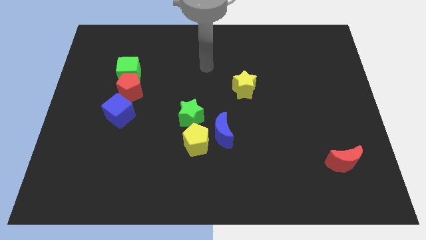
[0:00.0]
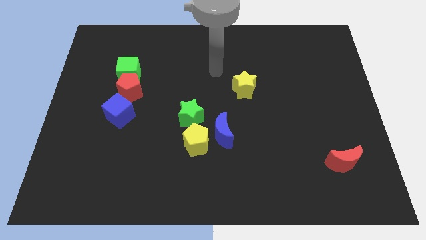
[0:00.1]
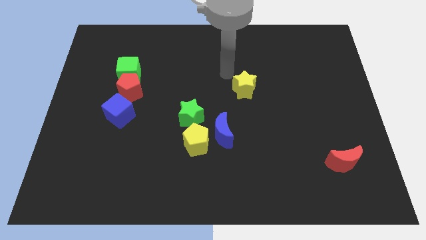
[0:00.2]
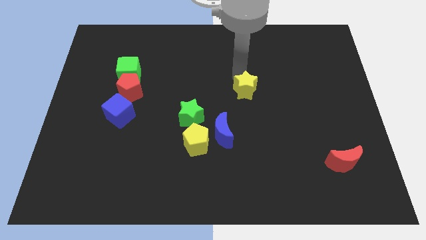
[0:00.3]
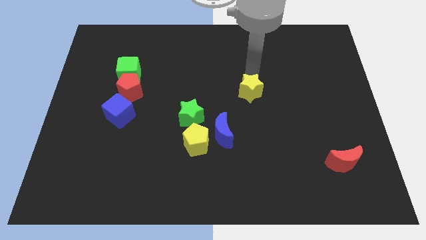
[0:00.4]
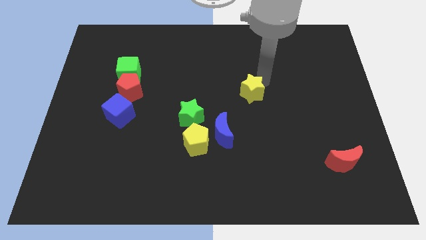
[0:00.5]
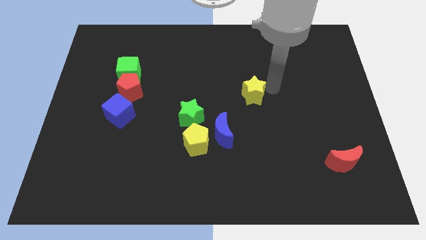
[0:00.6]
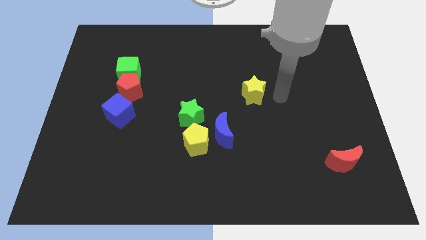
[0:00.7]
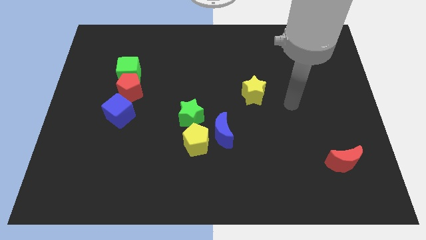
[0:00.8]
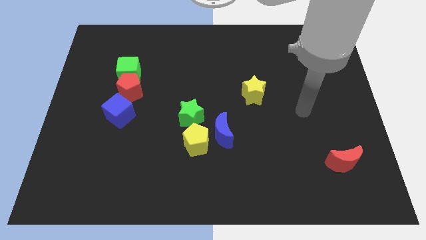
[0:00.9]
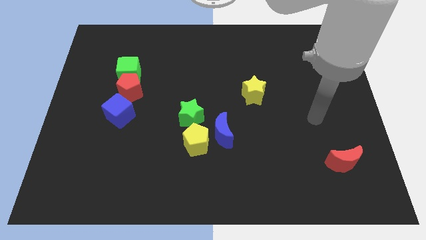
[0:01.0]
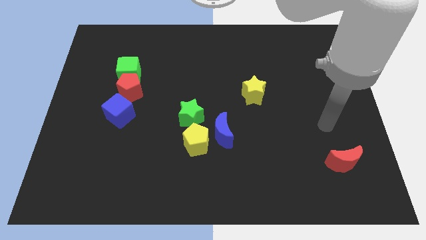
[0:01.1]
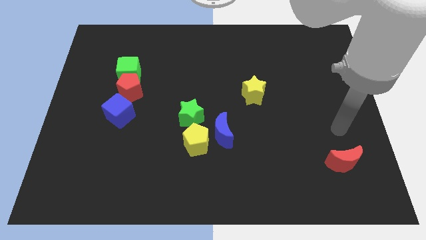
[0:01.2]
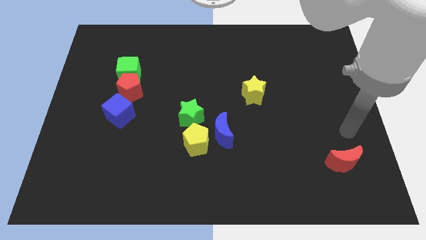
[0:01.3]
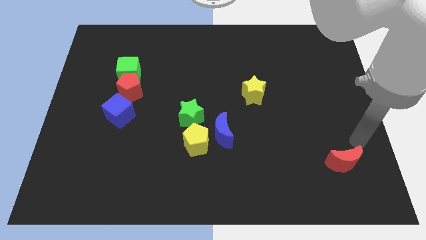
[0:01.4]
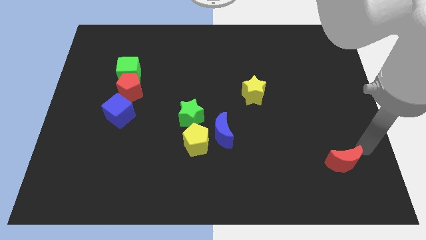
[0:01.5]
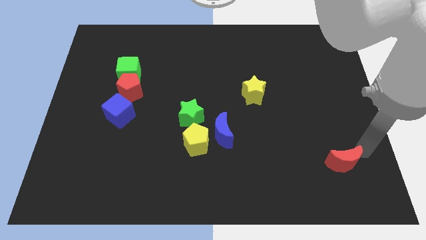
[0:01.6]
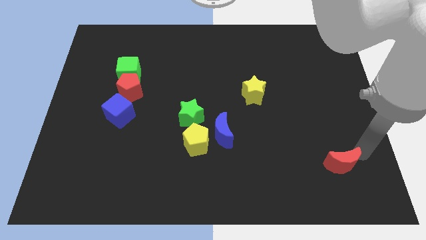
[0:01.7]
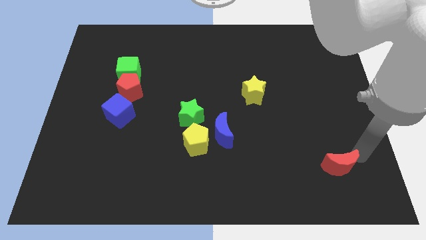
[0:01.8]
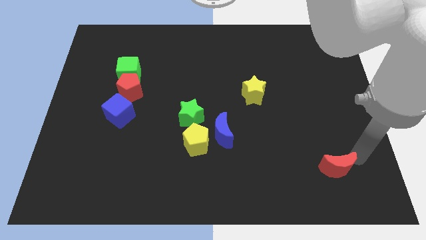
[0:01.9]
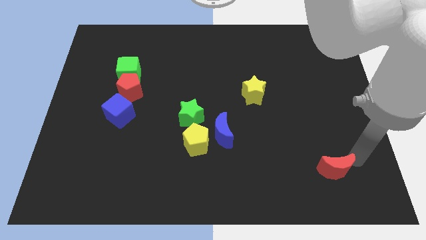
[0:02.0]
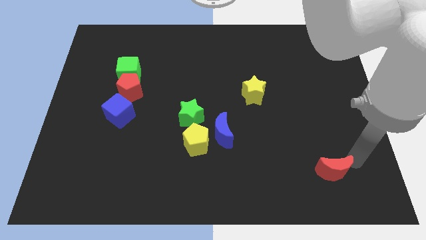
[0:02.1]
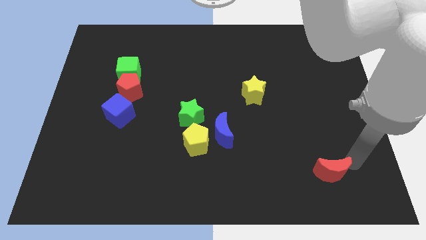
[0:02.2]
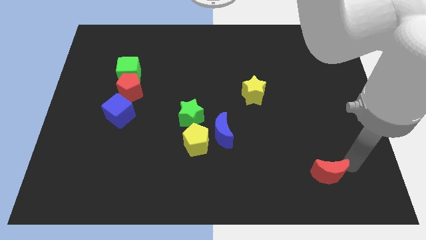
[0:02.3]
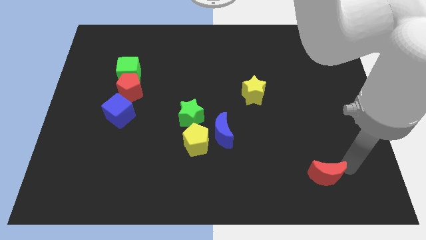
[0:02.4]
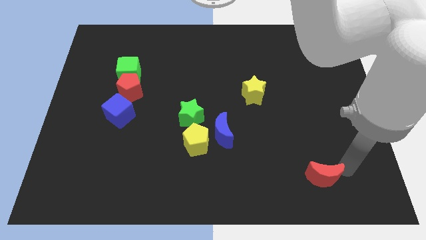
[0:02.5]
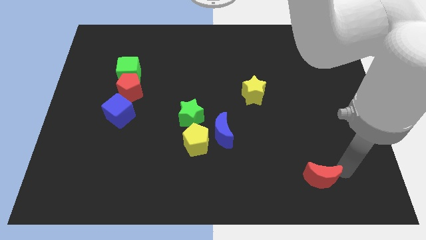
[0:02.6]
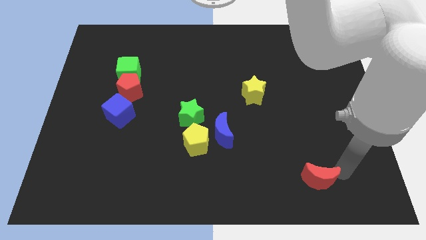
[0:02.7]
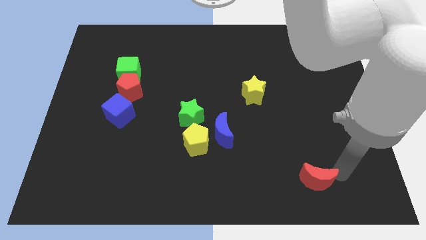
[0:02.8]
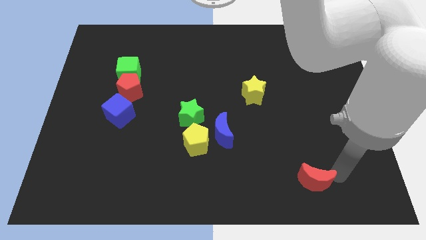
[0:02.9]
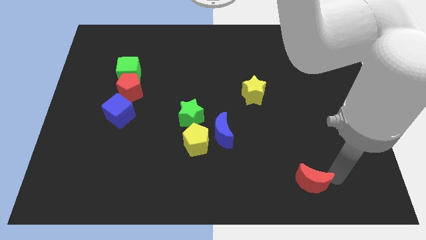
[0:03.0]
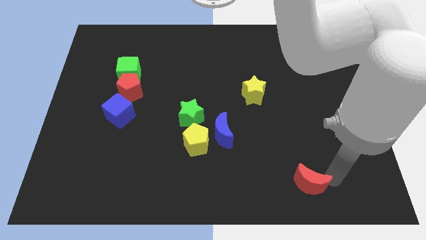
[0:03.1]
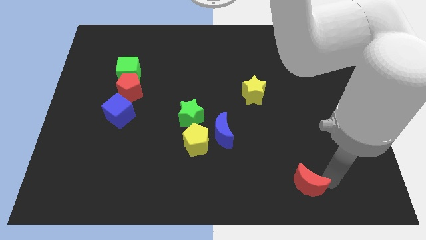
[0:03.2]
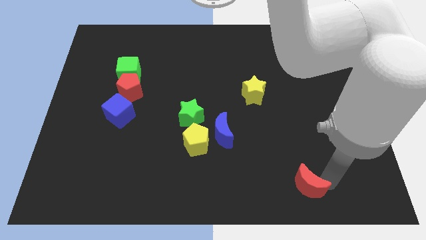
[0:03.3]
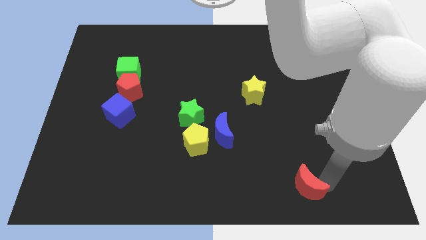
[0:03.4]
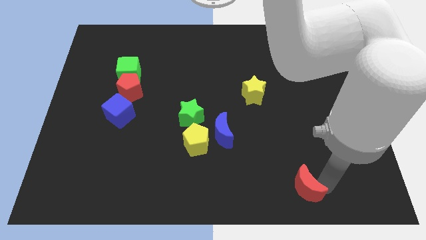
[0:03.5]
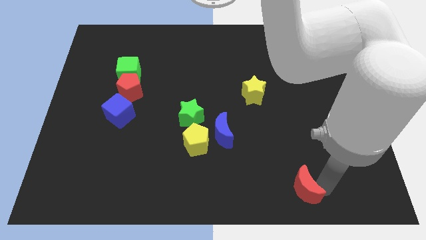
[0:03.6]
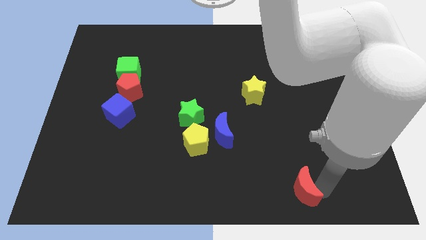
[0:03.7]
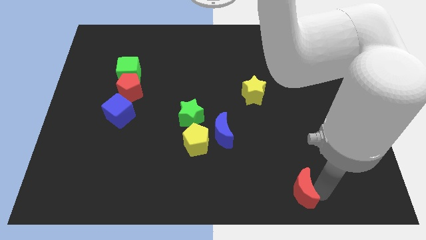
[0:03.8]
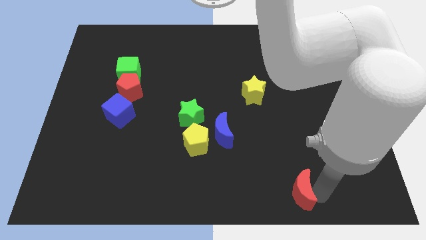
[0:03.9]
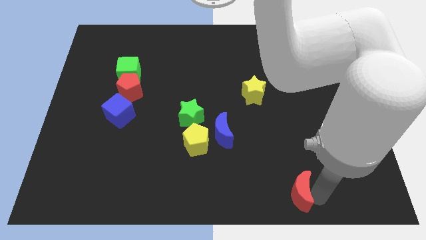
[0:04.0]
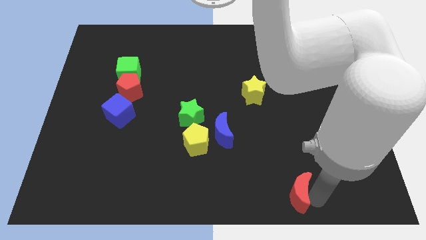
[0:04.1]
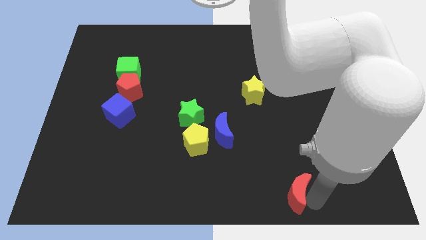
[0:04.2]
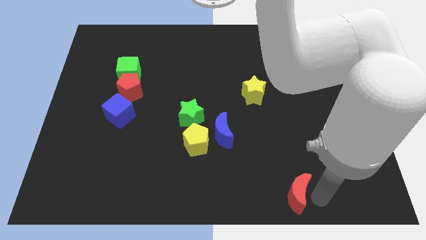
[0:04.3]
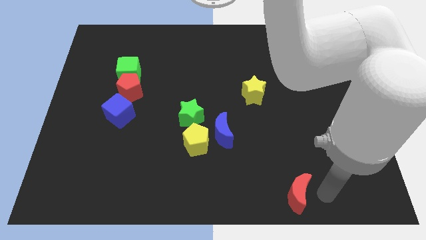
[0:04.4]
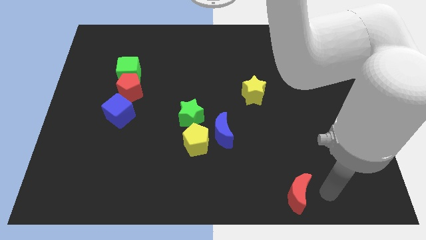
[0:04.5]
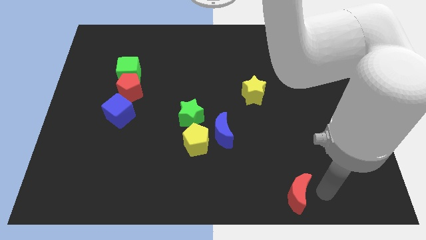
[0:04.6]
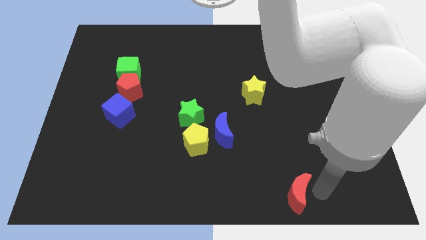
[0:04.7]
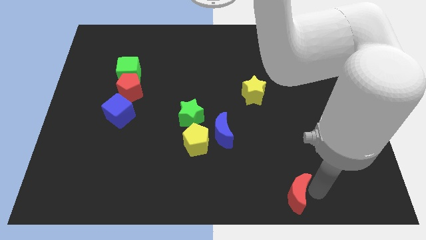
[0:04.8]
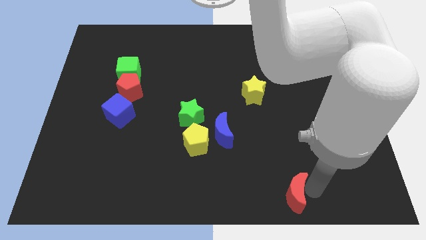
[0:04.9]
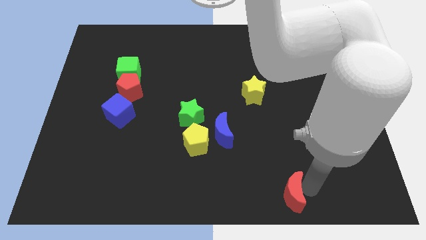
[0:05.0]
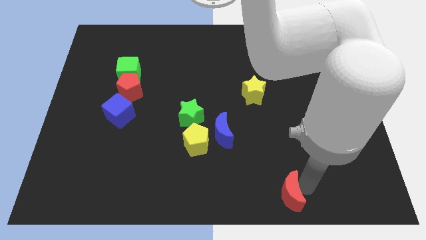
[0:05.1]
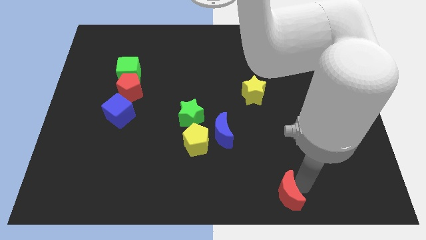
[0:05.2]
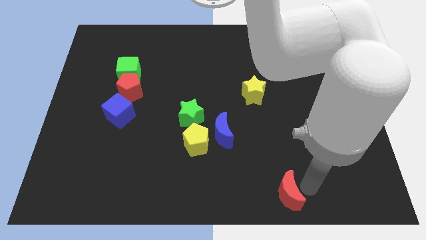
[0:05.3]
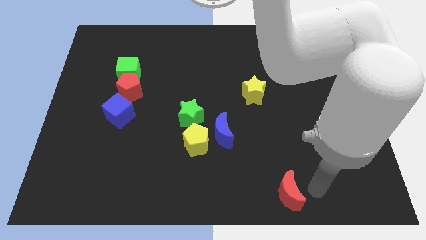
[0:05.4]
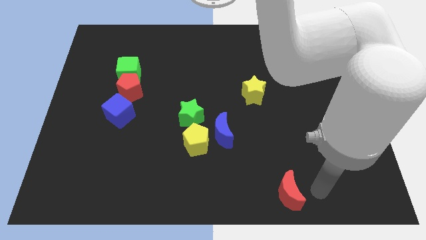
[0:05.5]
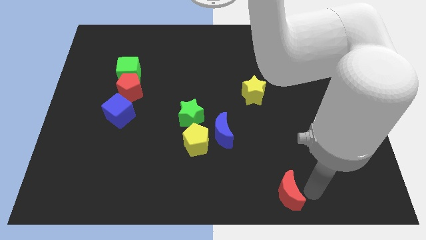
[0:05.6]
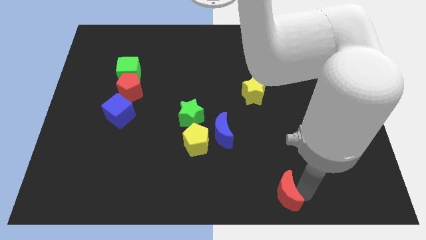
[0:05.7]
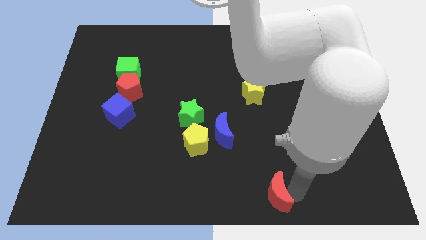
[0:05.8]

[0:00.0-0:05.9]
move the red moon to the bottom
